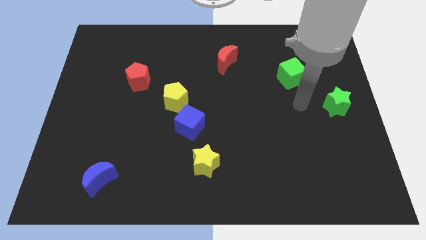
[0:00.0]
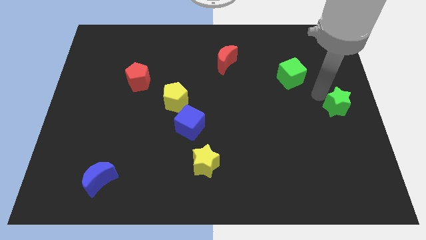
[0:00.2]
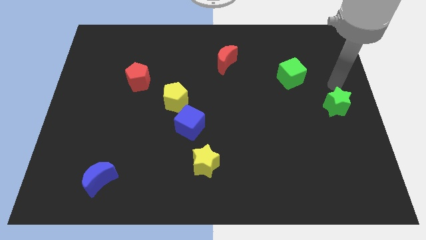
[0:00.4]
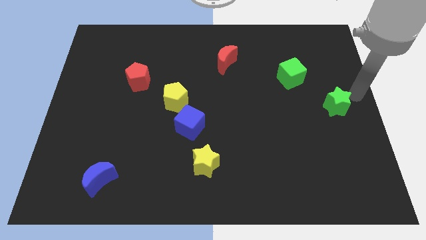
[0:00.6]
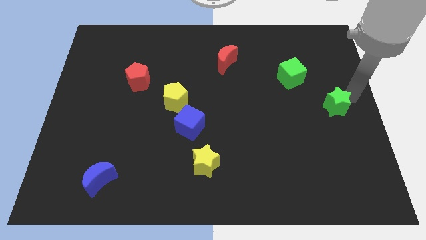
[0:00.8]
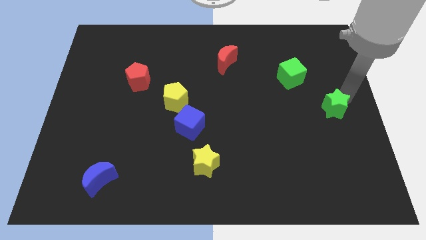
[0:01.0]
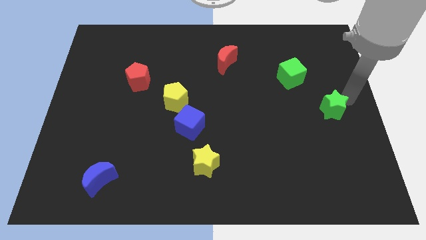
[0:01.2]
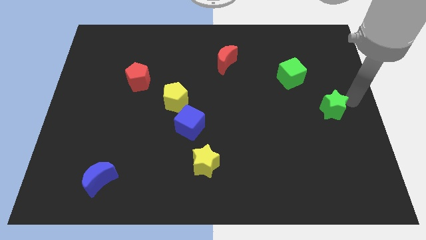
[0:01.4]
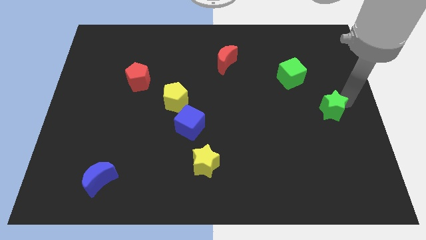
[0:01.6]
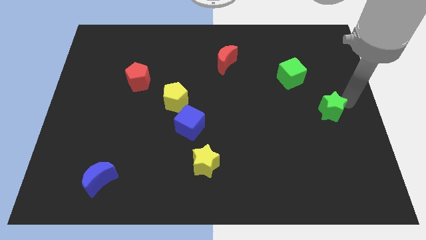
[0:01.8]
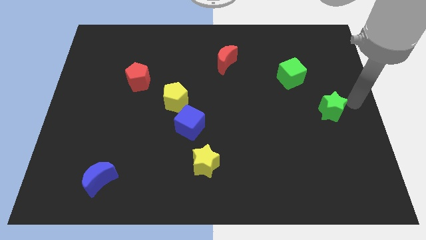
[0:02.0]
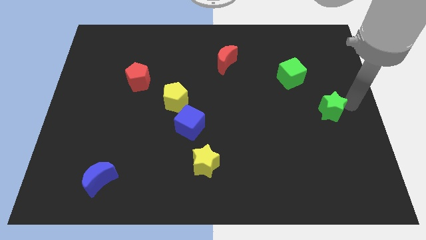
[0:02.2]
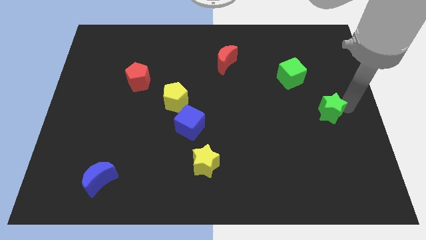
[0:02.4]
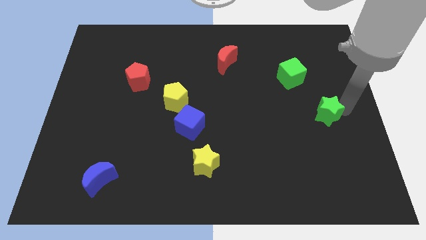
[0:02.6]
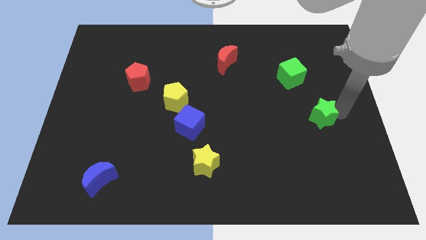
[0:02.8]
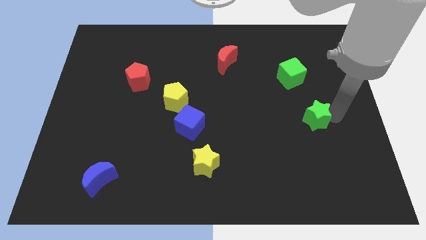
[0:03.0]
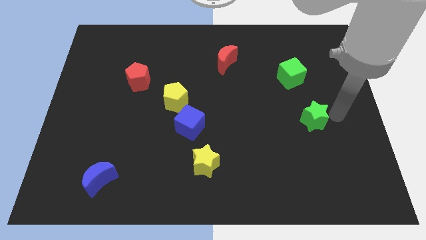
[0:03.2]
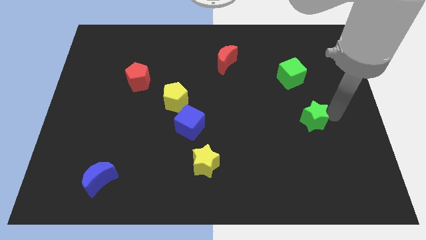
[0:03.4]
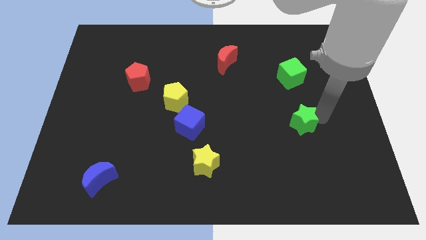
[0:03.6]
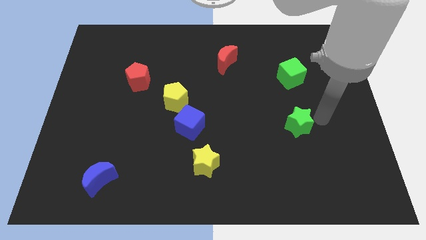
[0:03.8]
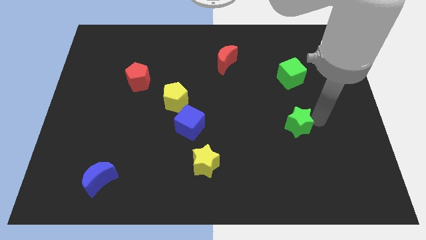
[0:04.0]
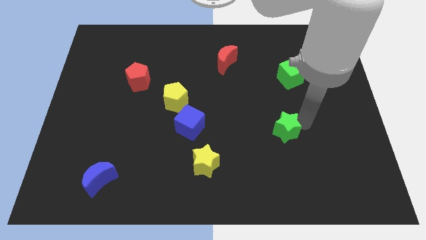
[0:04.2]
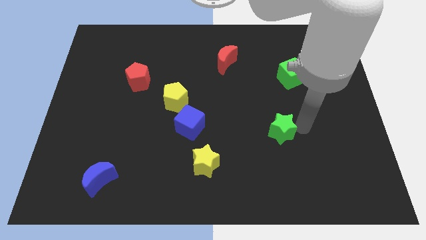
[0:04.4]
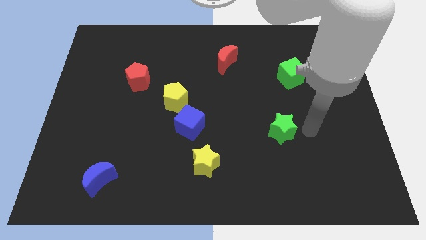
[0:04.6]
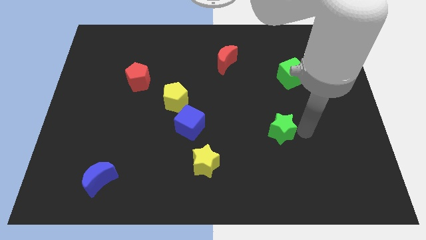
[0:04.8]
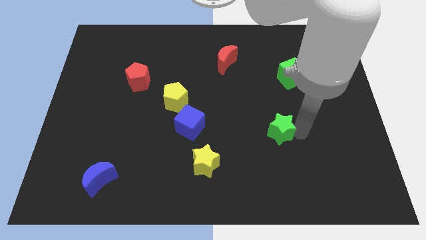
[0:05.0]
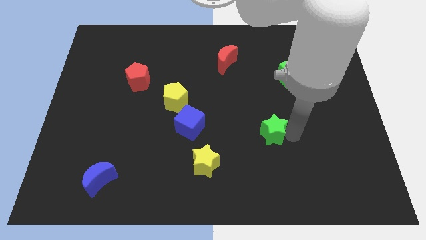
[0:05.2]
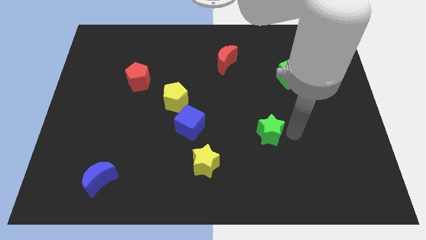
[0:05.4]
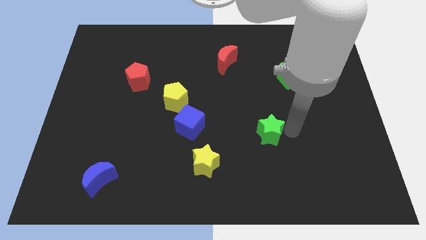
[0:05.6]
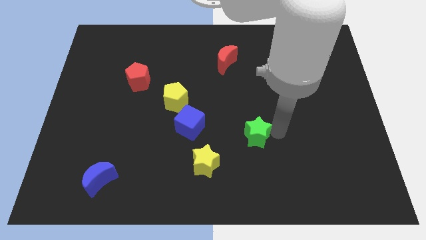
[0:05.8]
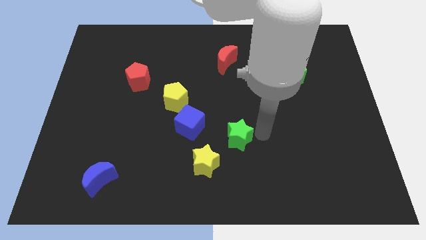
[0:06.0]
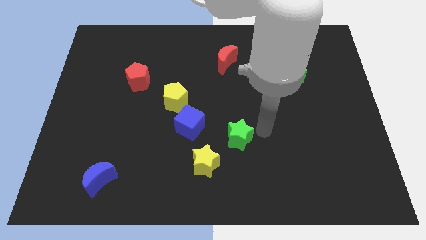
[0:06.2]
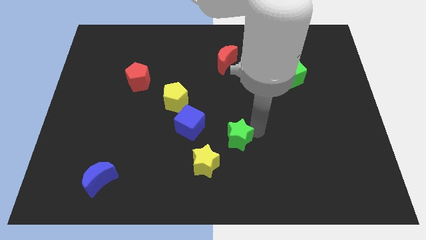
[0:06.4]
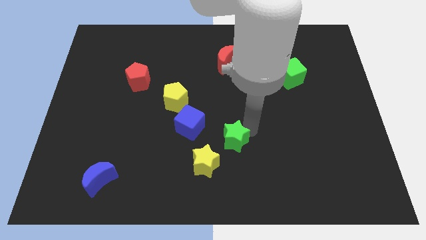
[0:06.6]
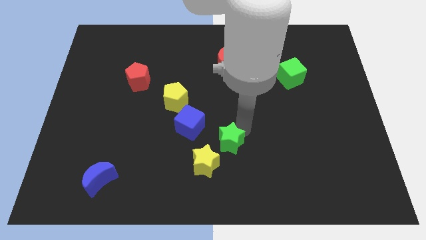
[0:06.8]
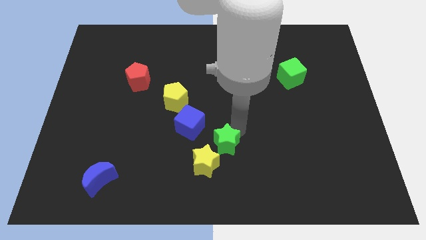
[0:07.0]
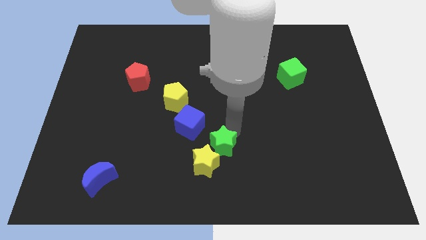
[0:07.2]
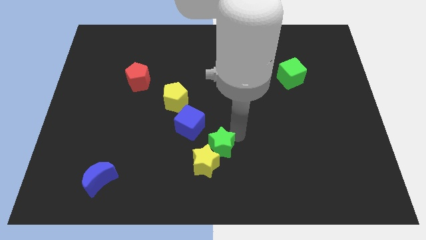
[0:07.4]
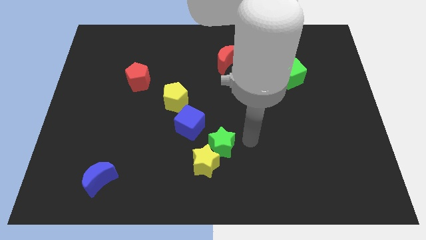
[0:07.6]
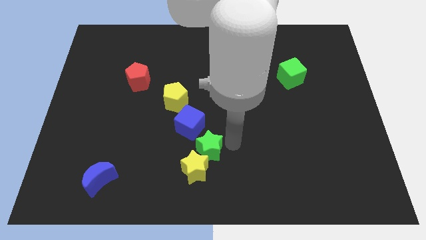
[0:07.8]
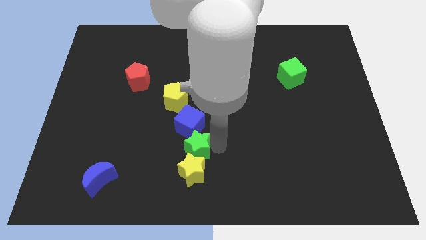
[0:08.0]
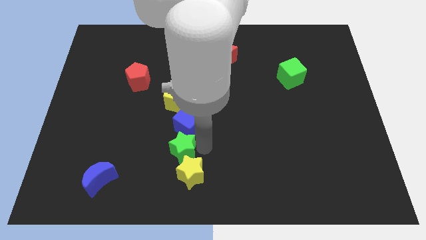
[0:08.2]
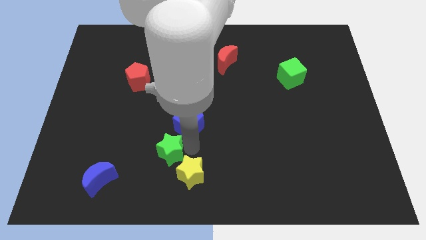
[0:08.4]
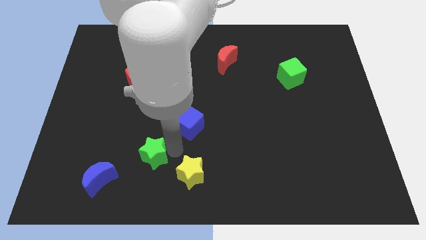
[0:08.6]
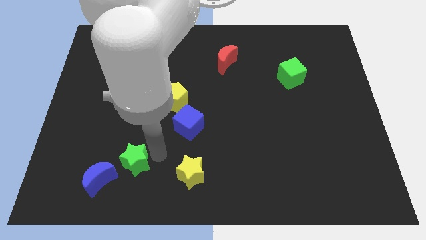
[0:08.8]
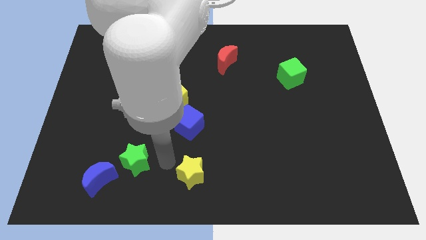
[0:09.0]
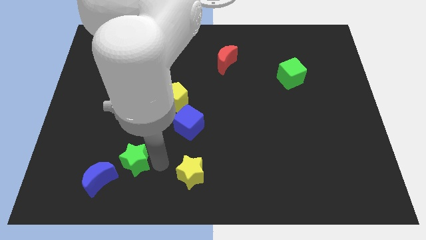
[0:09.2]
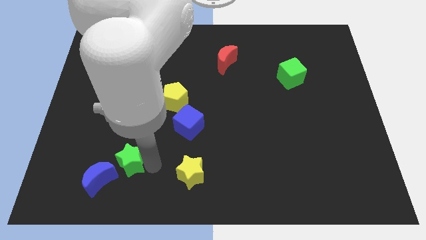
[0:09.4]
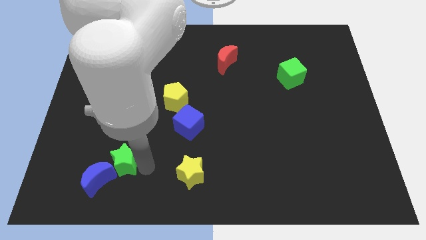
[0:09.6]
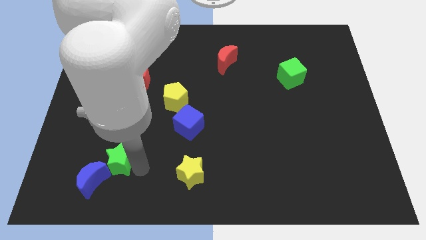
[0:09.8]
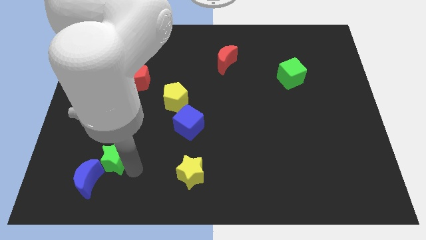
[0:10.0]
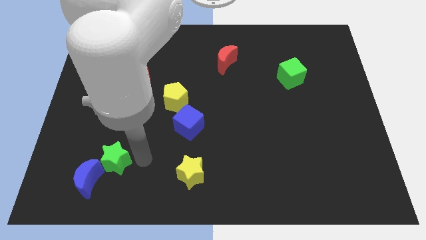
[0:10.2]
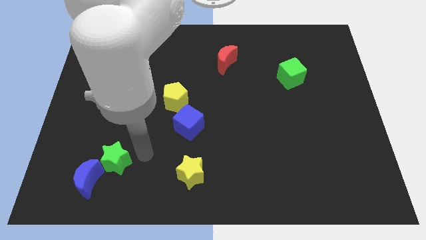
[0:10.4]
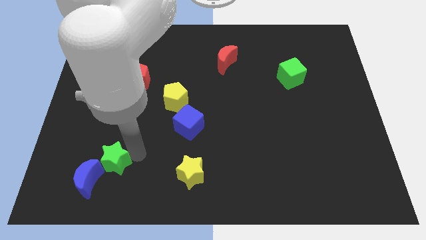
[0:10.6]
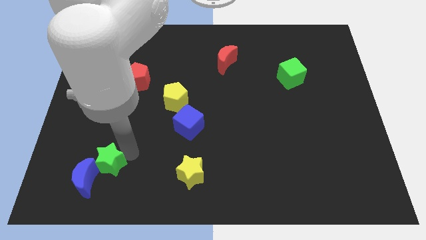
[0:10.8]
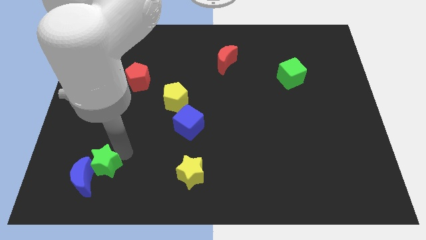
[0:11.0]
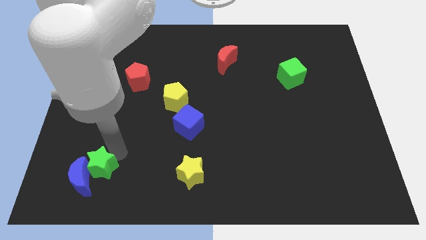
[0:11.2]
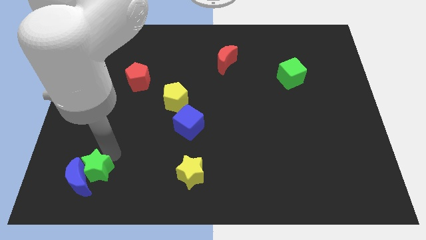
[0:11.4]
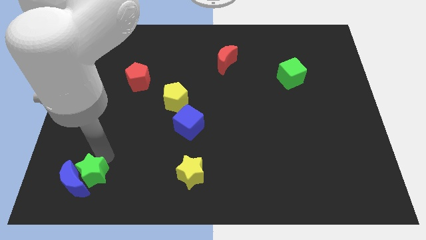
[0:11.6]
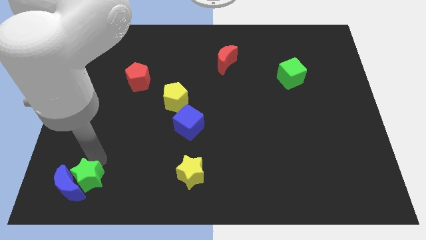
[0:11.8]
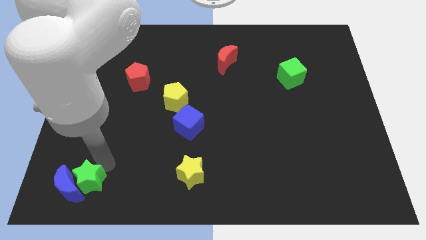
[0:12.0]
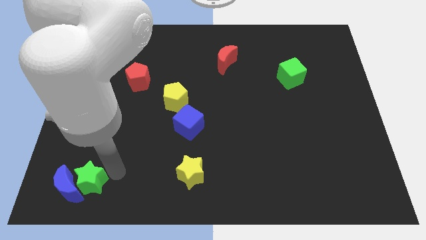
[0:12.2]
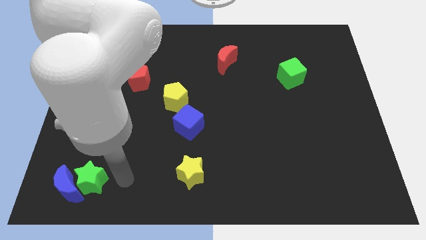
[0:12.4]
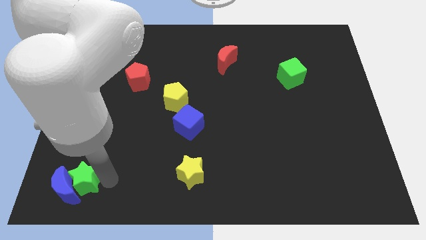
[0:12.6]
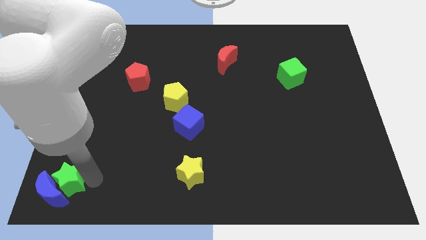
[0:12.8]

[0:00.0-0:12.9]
slide the green star to the lower left corner

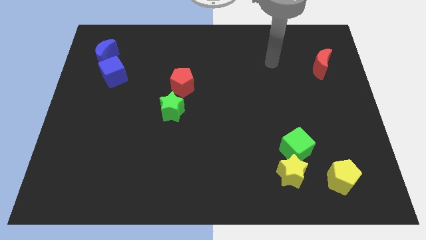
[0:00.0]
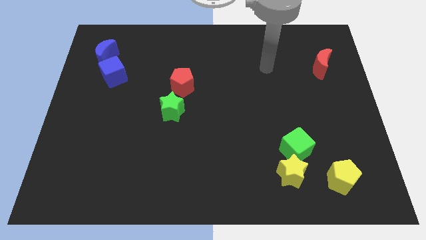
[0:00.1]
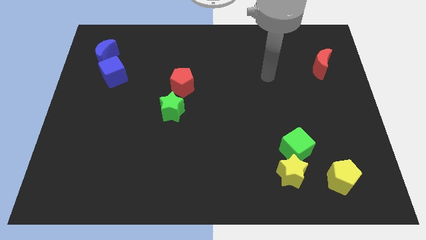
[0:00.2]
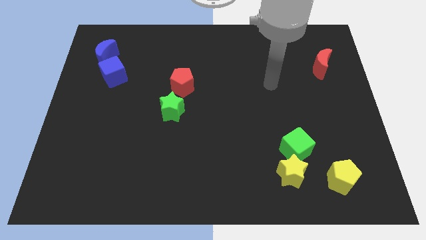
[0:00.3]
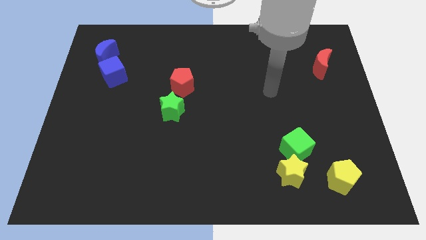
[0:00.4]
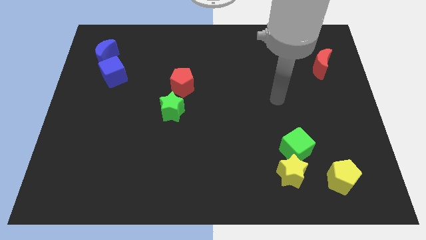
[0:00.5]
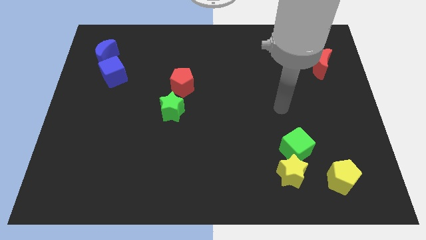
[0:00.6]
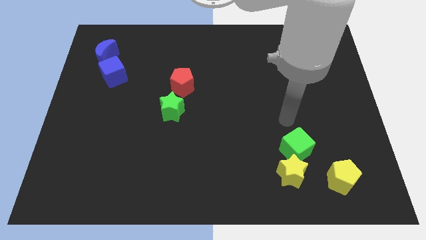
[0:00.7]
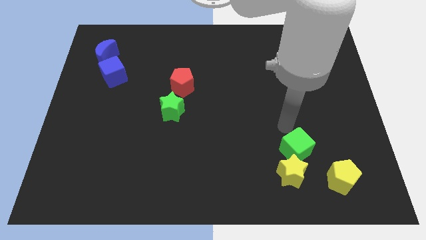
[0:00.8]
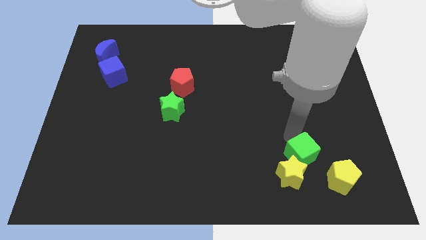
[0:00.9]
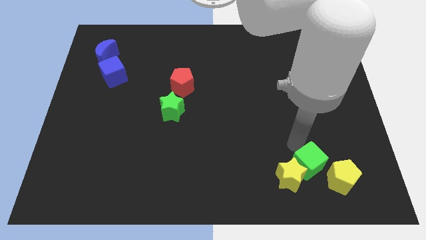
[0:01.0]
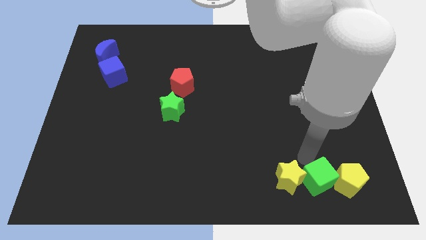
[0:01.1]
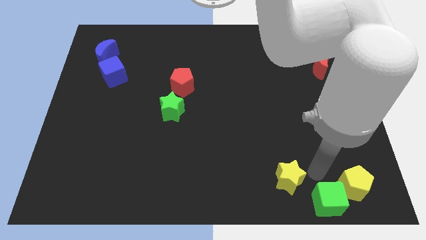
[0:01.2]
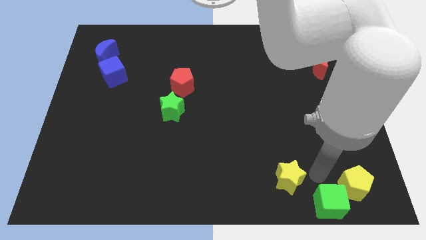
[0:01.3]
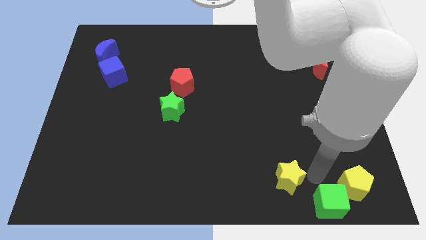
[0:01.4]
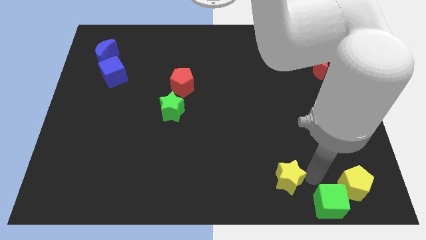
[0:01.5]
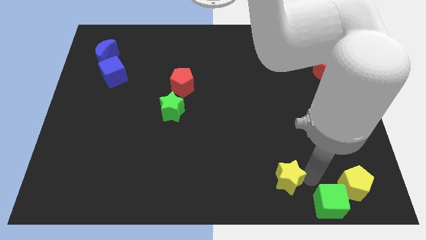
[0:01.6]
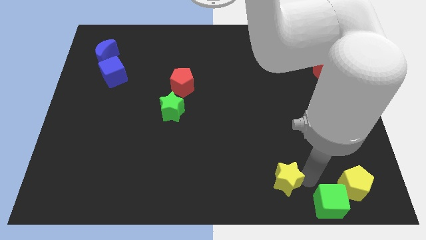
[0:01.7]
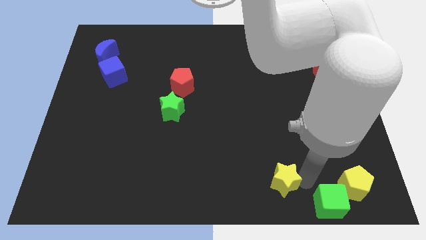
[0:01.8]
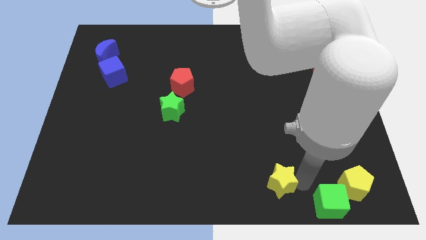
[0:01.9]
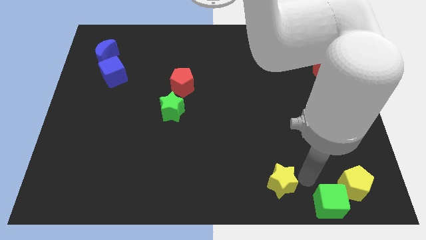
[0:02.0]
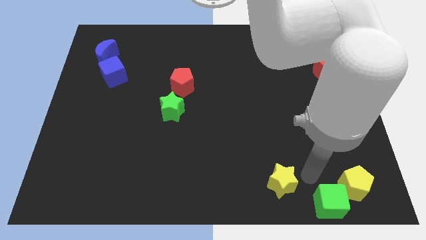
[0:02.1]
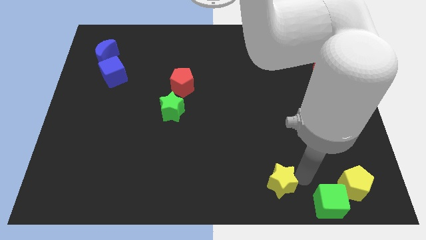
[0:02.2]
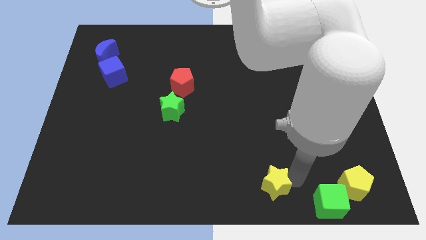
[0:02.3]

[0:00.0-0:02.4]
slide the yellow star to the bottom side
